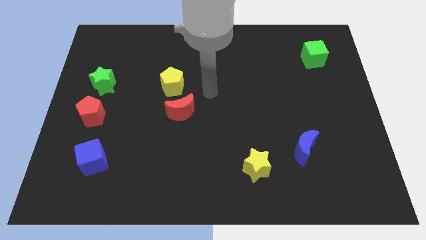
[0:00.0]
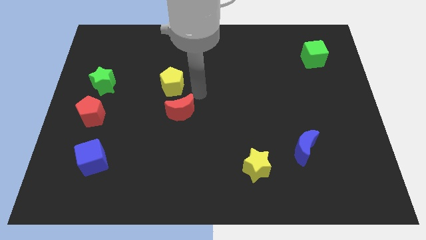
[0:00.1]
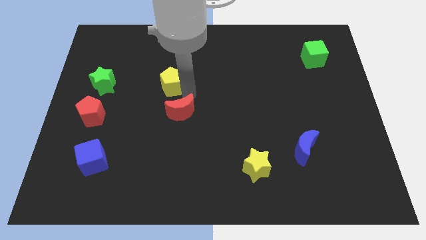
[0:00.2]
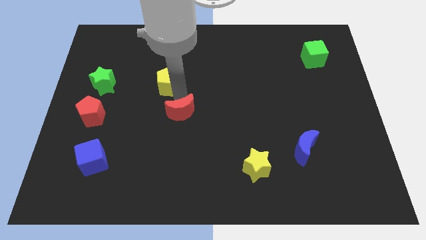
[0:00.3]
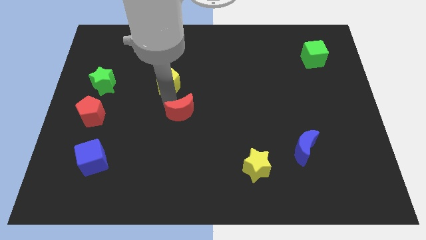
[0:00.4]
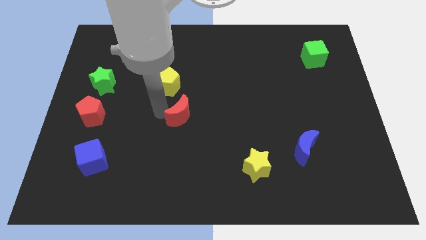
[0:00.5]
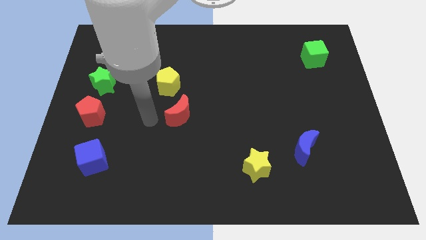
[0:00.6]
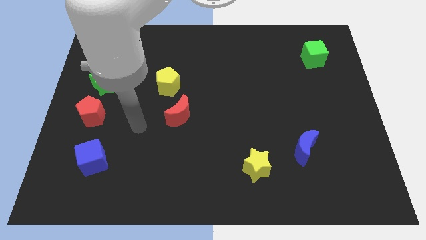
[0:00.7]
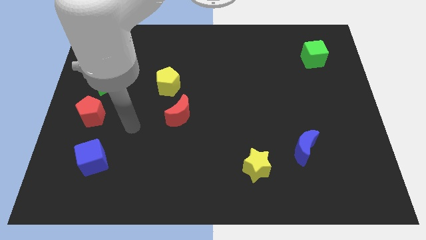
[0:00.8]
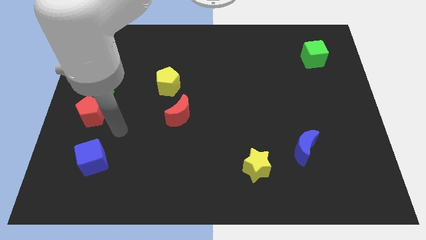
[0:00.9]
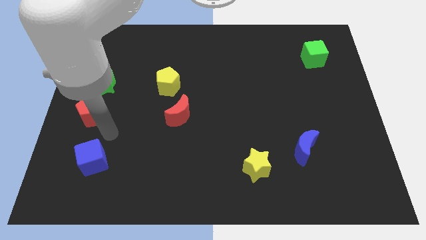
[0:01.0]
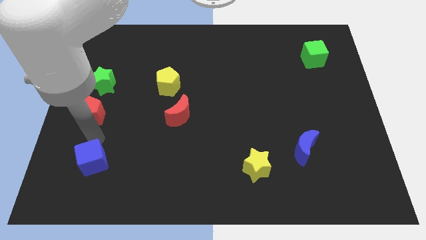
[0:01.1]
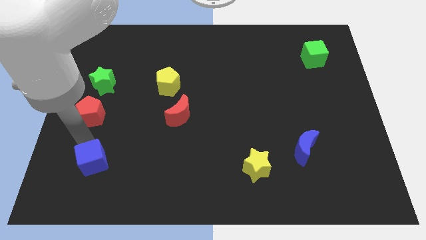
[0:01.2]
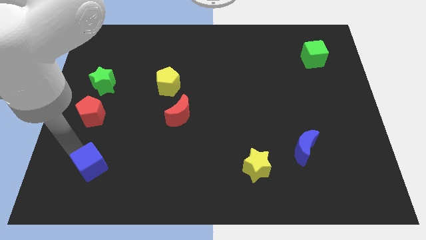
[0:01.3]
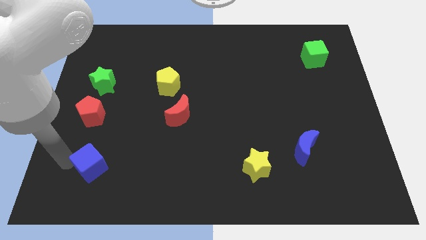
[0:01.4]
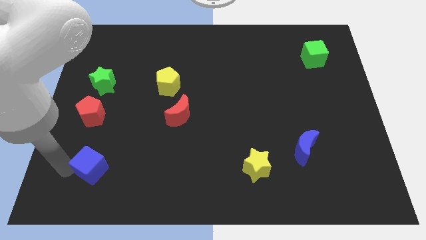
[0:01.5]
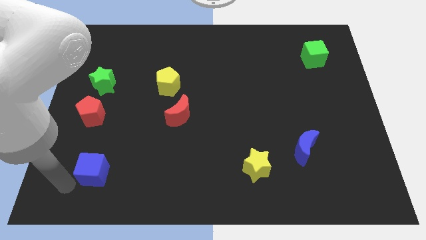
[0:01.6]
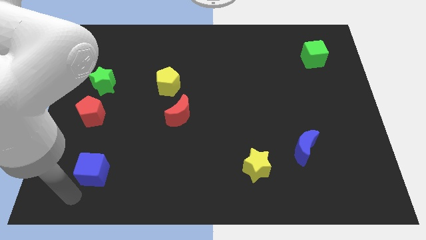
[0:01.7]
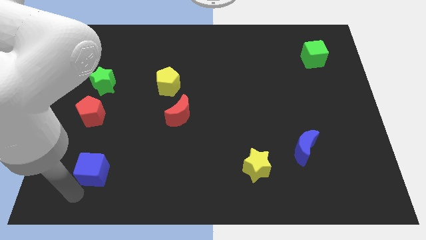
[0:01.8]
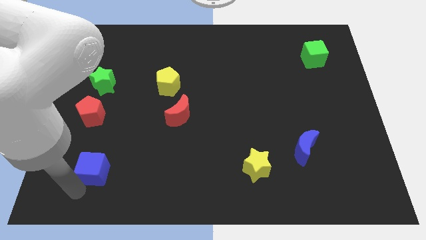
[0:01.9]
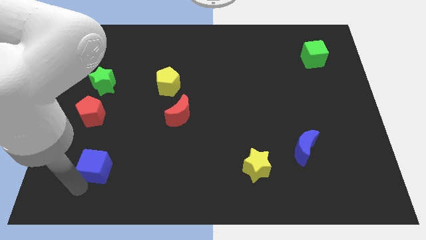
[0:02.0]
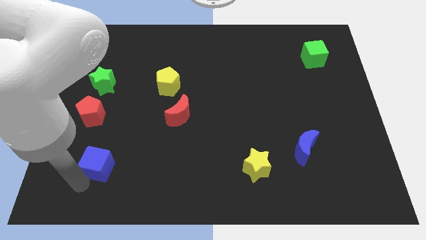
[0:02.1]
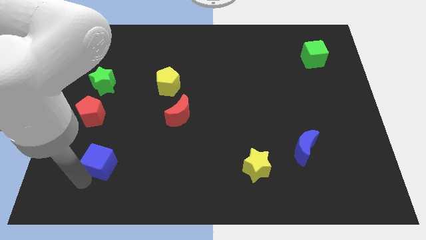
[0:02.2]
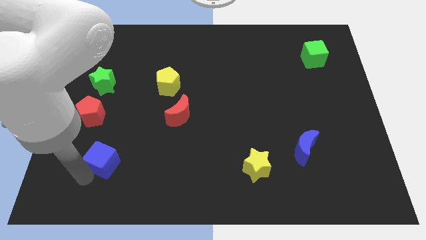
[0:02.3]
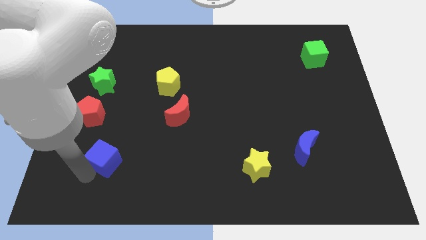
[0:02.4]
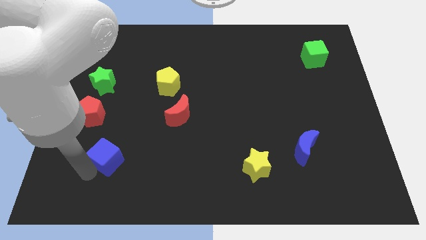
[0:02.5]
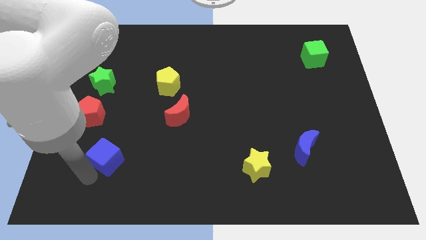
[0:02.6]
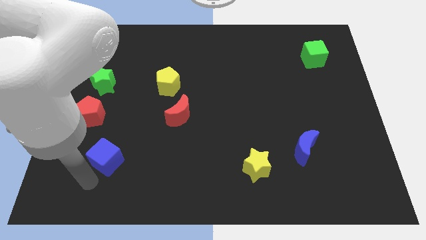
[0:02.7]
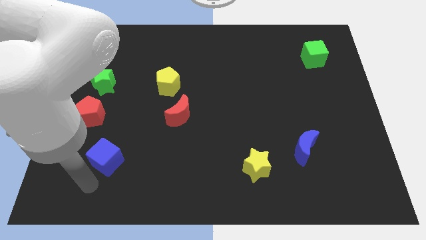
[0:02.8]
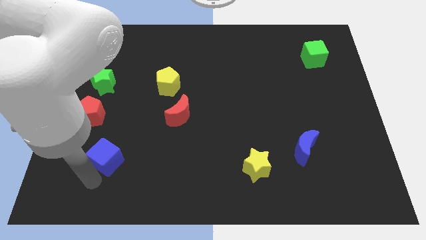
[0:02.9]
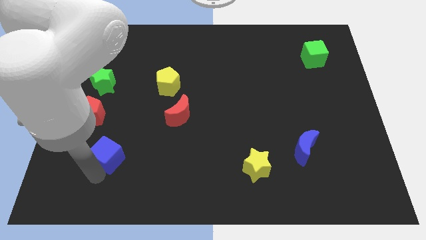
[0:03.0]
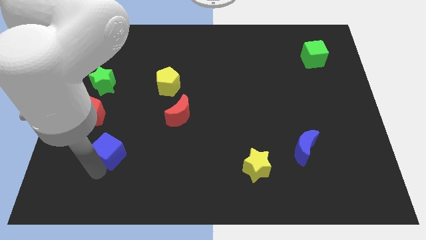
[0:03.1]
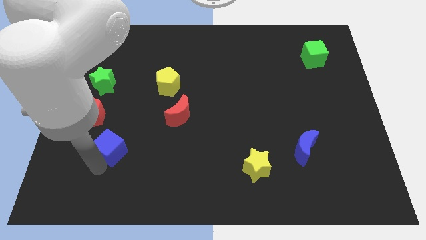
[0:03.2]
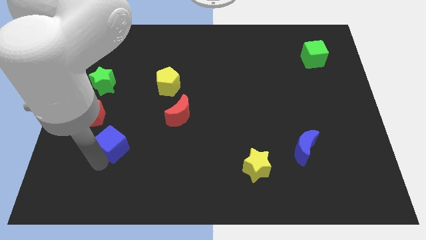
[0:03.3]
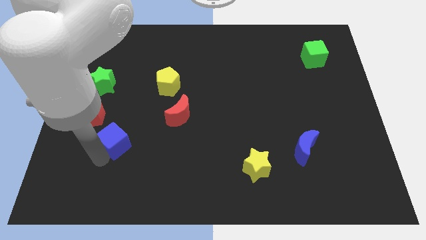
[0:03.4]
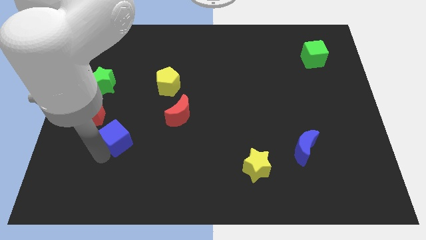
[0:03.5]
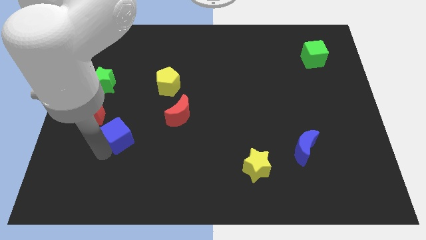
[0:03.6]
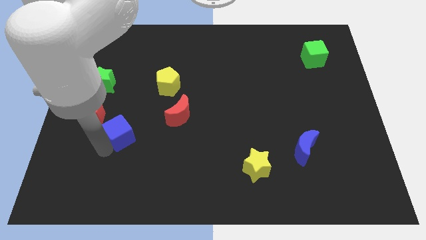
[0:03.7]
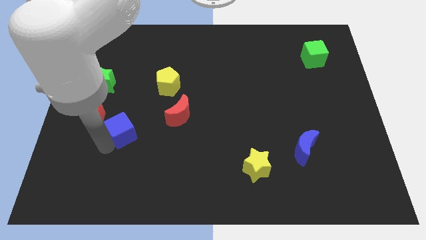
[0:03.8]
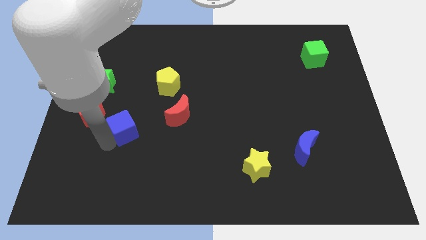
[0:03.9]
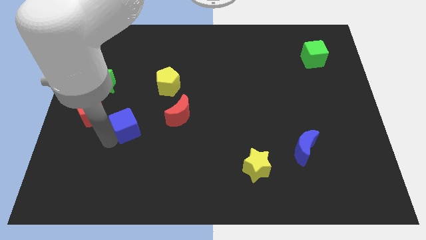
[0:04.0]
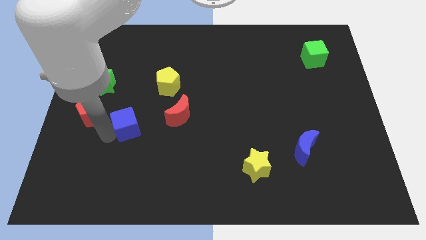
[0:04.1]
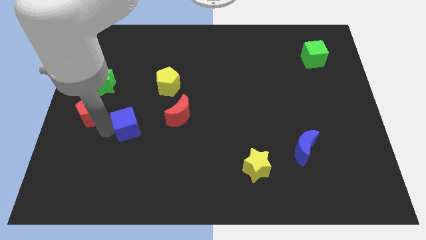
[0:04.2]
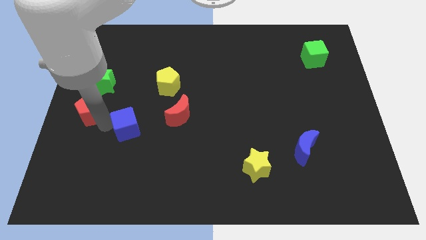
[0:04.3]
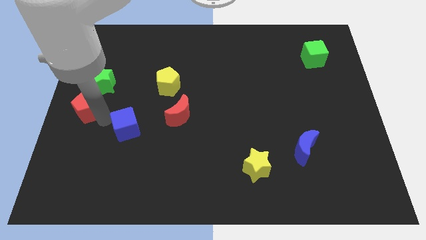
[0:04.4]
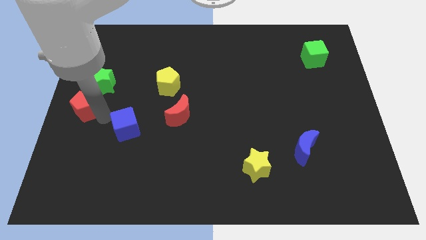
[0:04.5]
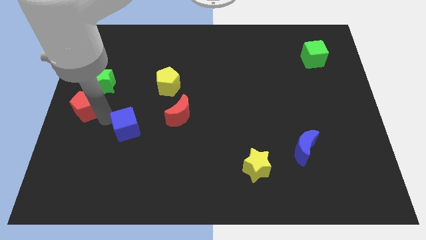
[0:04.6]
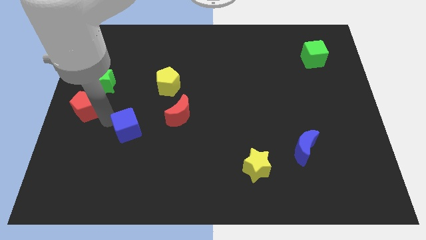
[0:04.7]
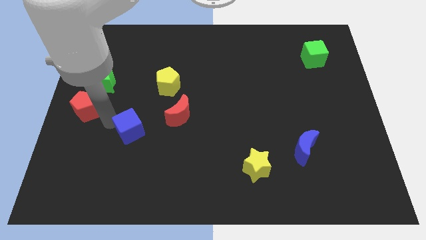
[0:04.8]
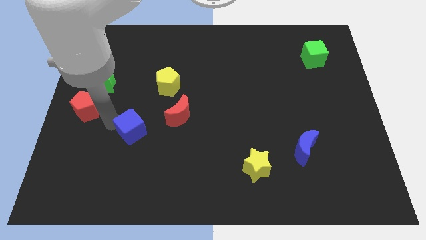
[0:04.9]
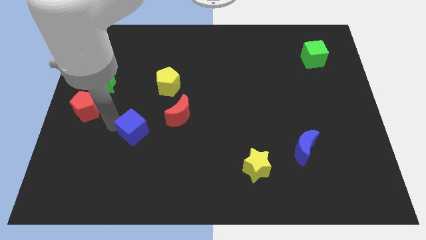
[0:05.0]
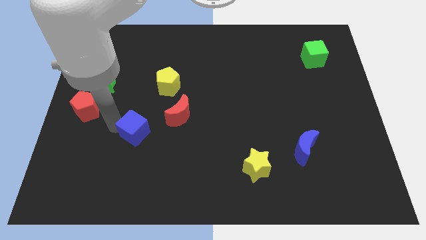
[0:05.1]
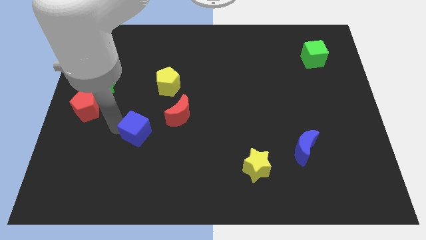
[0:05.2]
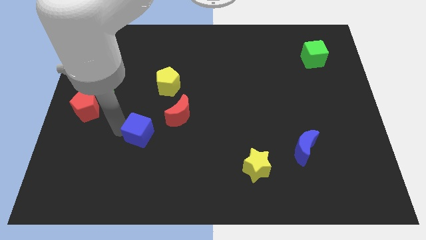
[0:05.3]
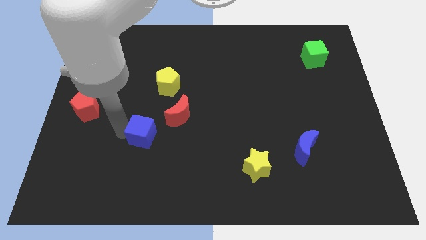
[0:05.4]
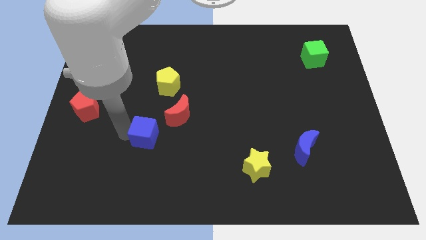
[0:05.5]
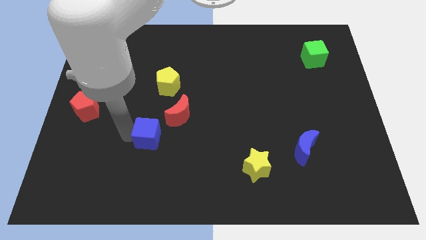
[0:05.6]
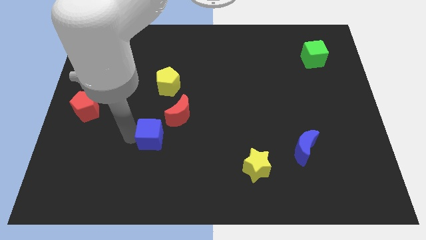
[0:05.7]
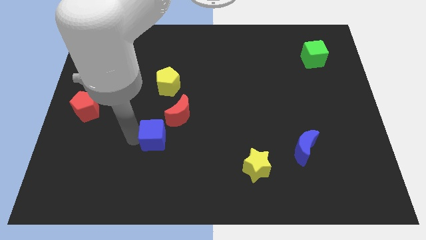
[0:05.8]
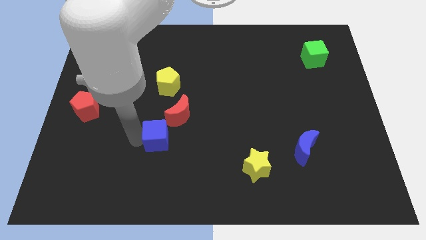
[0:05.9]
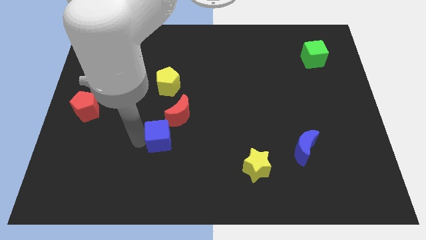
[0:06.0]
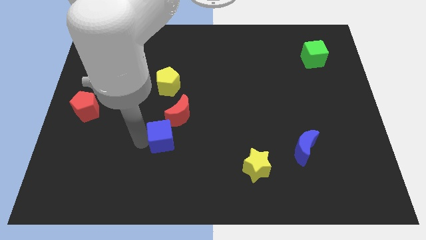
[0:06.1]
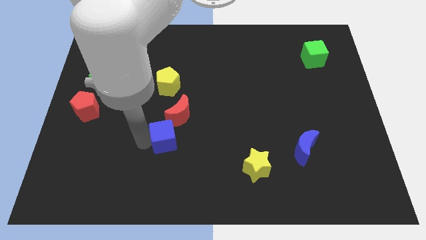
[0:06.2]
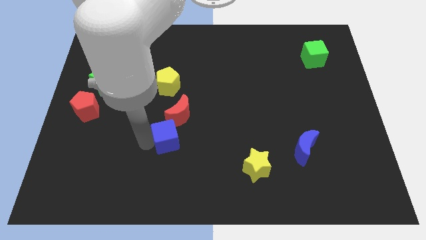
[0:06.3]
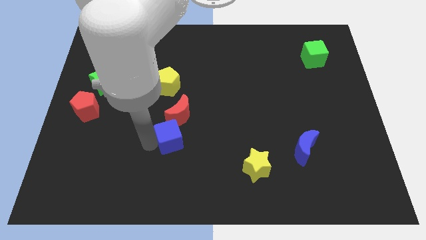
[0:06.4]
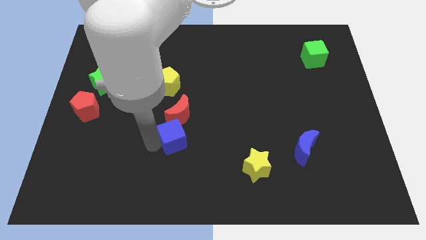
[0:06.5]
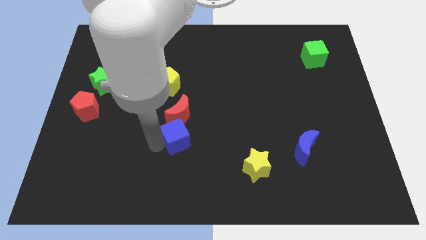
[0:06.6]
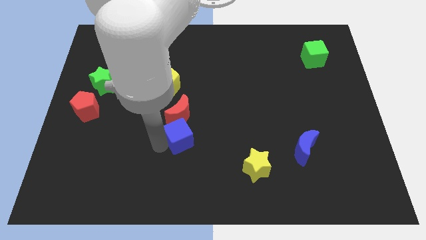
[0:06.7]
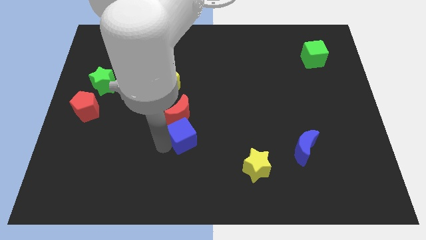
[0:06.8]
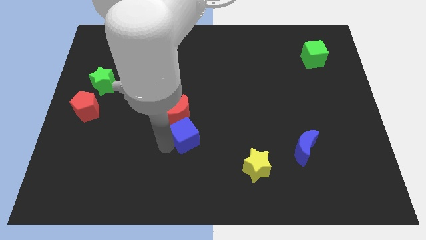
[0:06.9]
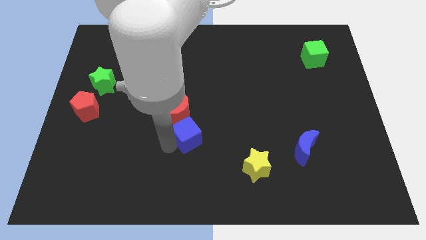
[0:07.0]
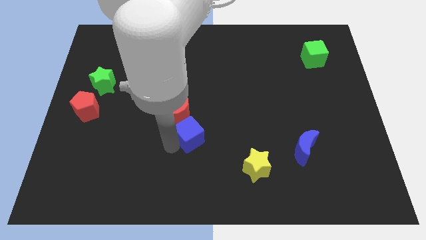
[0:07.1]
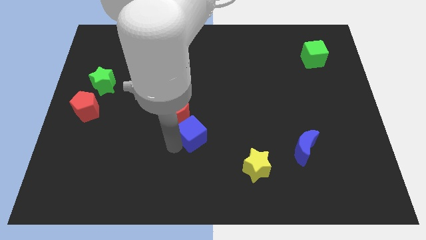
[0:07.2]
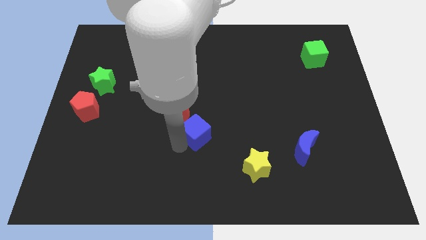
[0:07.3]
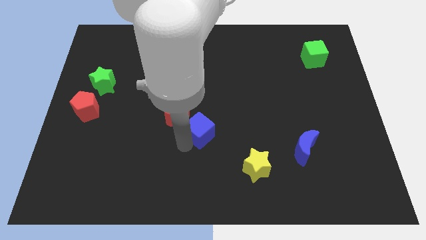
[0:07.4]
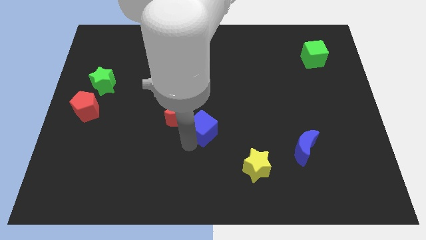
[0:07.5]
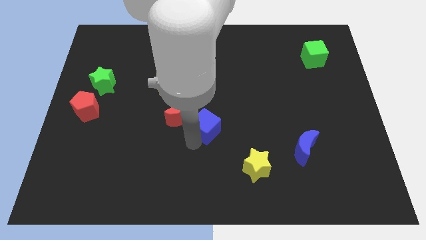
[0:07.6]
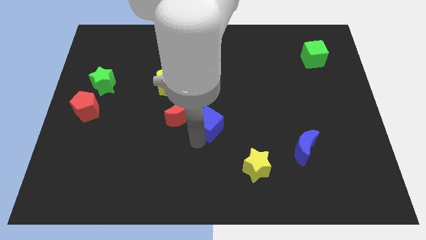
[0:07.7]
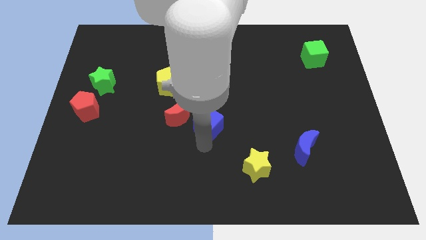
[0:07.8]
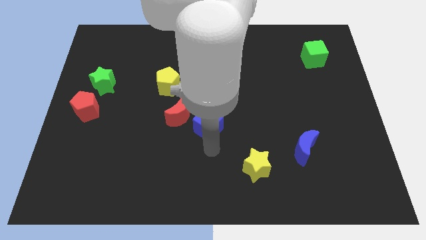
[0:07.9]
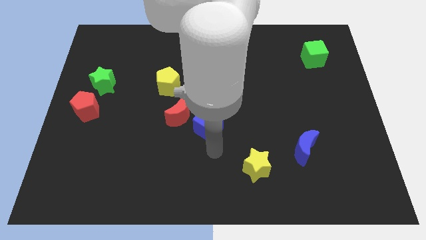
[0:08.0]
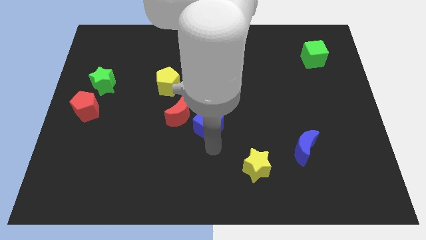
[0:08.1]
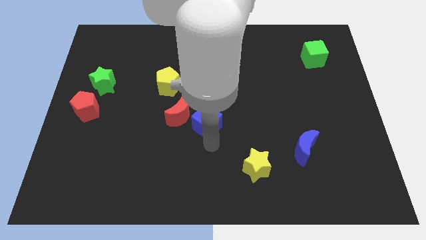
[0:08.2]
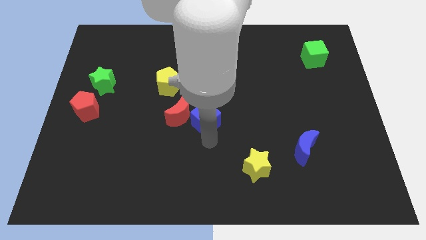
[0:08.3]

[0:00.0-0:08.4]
slide the blue cube up and right
